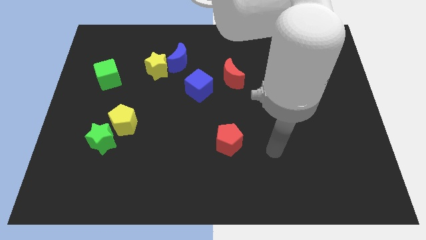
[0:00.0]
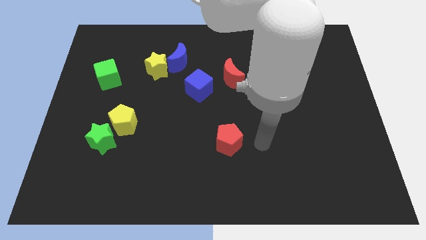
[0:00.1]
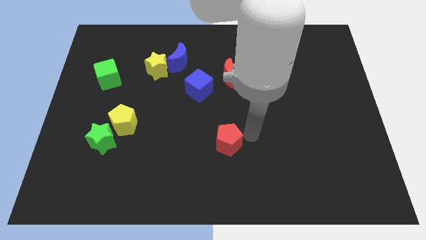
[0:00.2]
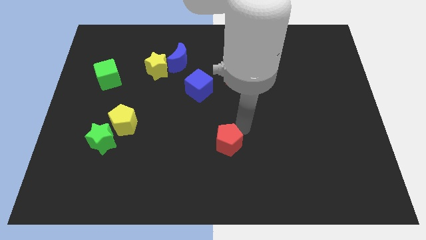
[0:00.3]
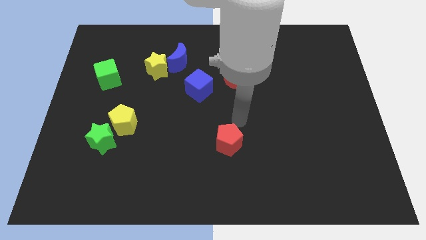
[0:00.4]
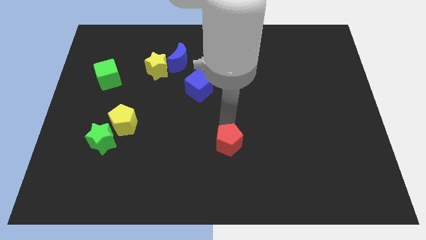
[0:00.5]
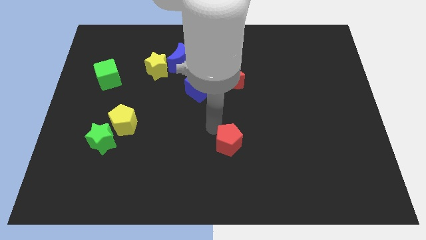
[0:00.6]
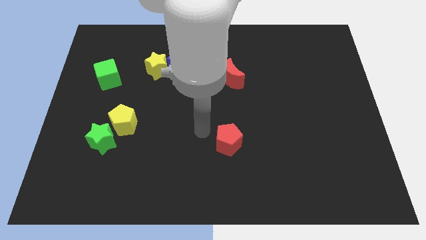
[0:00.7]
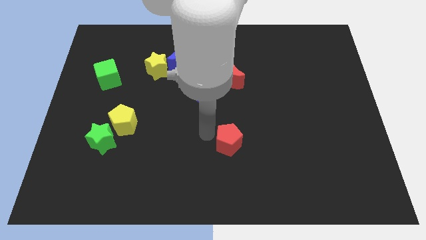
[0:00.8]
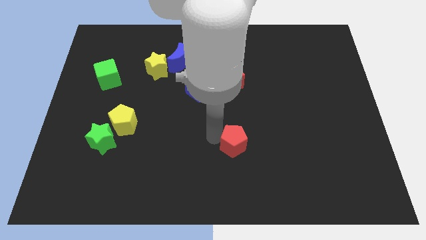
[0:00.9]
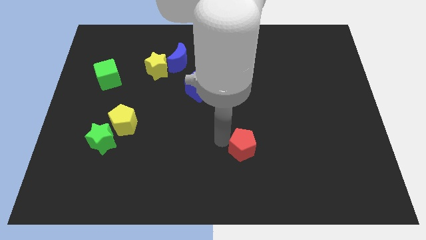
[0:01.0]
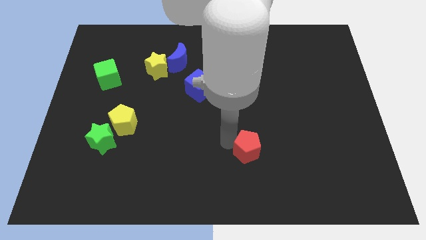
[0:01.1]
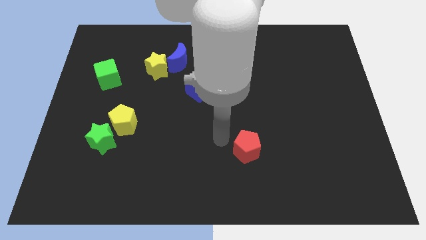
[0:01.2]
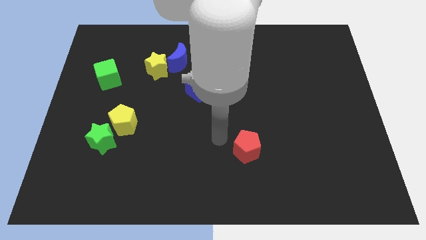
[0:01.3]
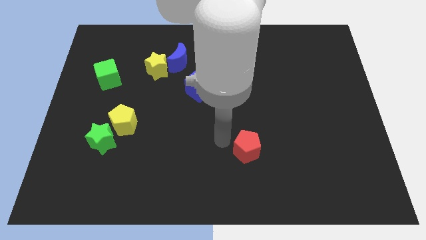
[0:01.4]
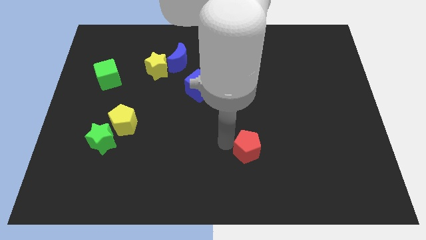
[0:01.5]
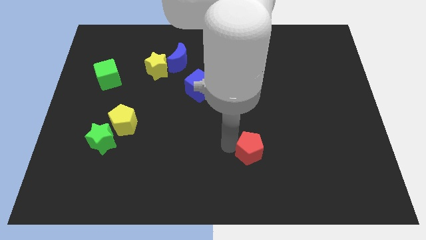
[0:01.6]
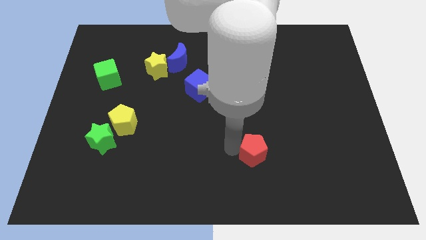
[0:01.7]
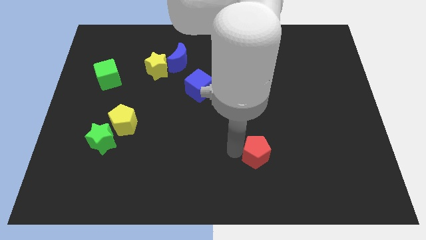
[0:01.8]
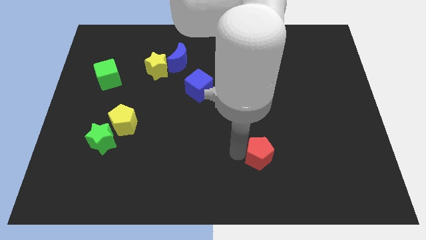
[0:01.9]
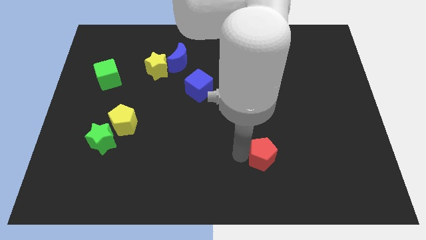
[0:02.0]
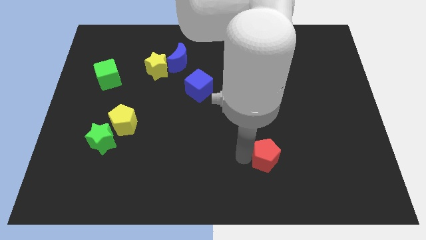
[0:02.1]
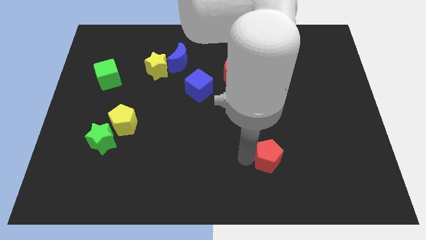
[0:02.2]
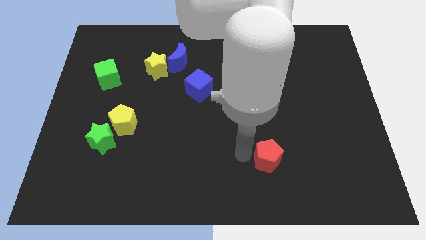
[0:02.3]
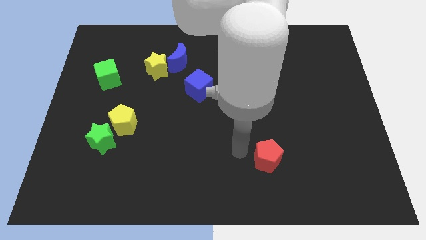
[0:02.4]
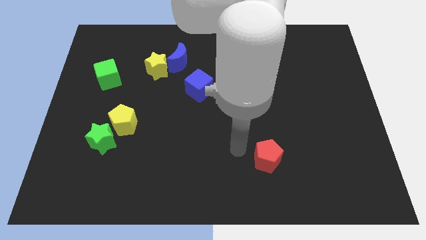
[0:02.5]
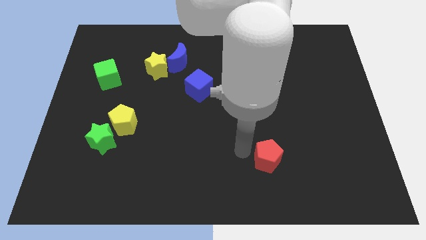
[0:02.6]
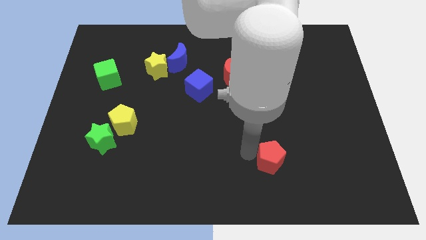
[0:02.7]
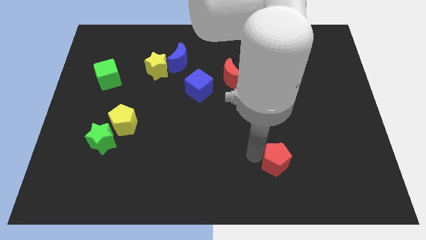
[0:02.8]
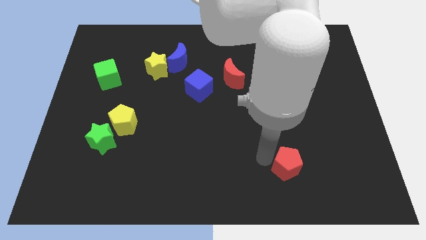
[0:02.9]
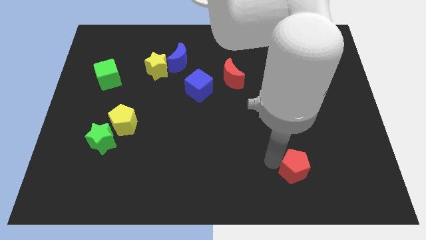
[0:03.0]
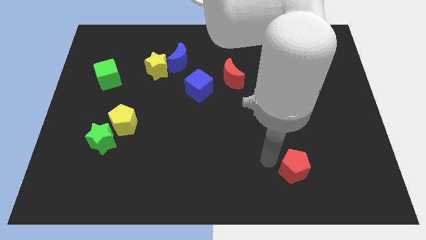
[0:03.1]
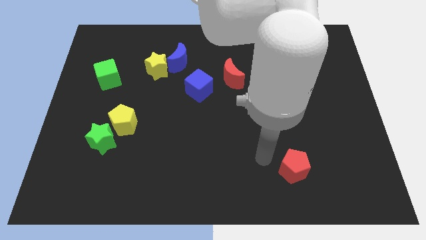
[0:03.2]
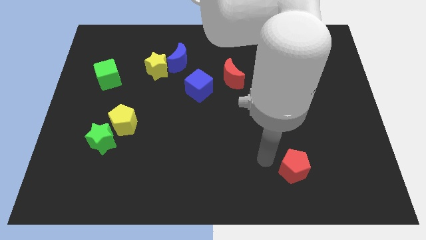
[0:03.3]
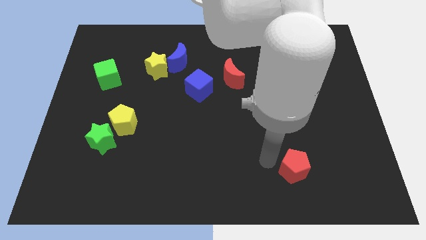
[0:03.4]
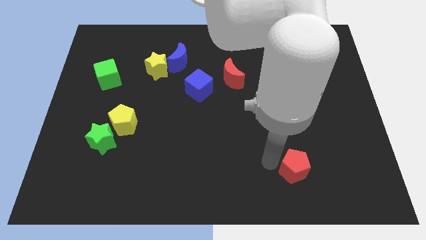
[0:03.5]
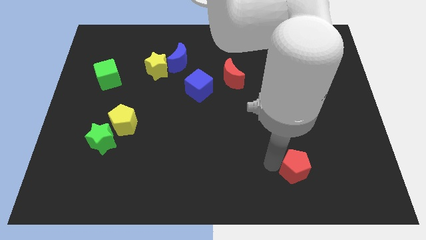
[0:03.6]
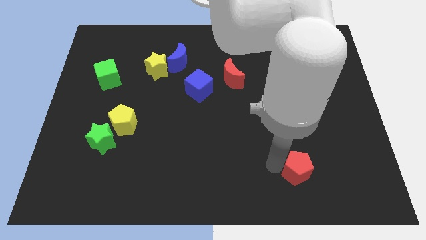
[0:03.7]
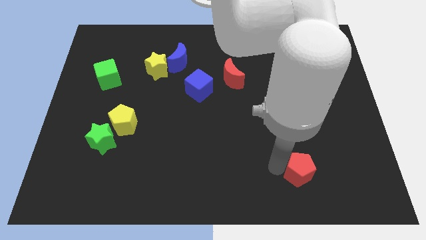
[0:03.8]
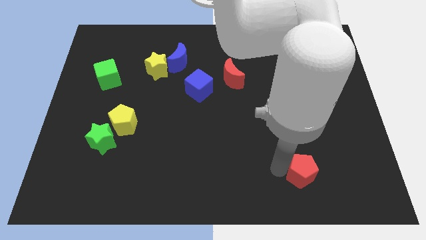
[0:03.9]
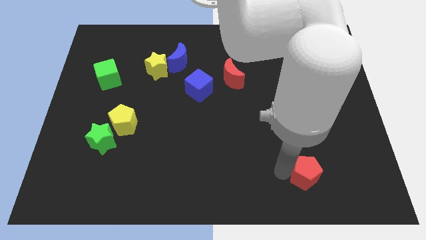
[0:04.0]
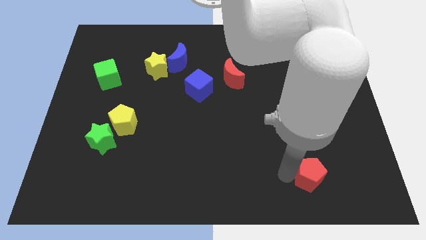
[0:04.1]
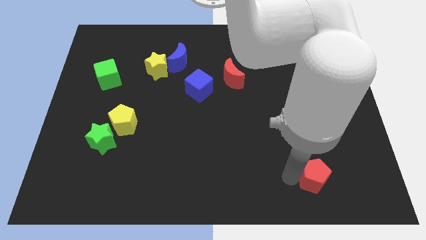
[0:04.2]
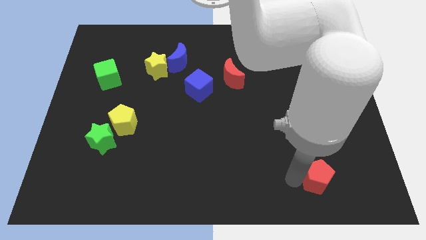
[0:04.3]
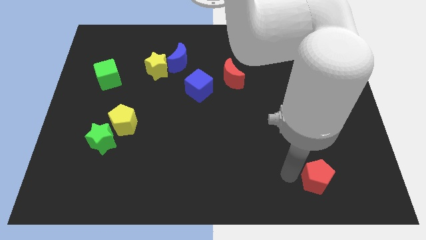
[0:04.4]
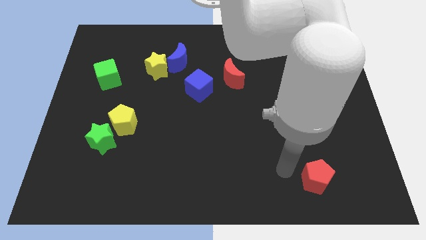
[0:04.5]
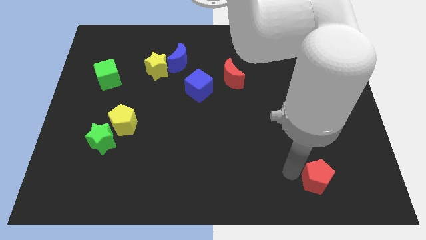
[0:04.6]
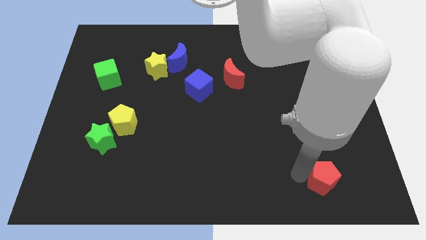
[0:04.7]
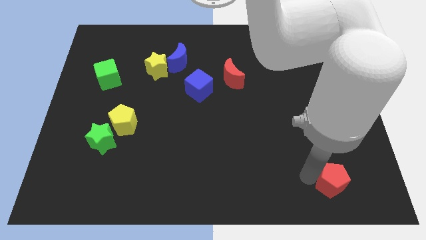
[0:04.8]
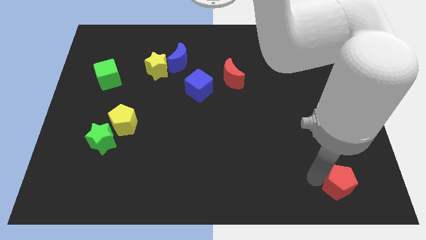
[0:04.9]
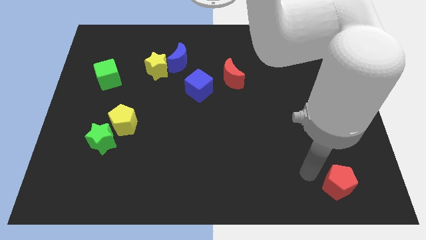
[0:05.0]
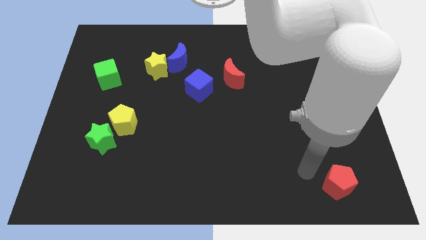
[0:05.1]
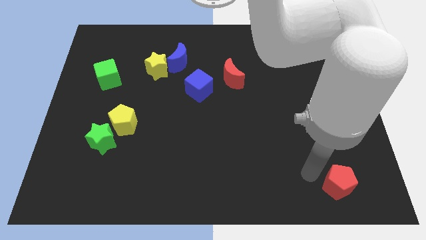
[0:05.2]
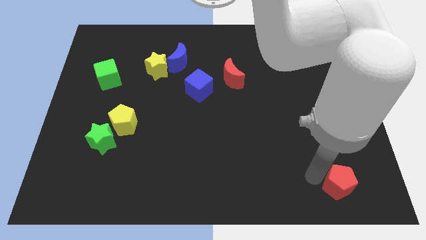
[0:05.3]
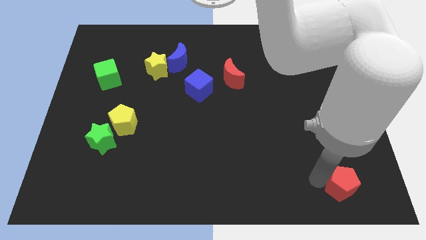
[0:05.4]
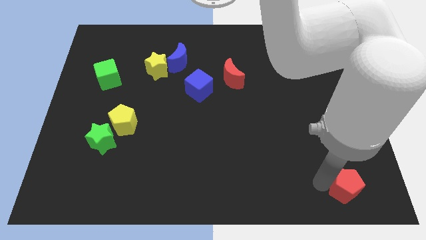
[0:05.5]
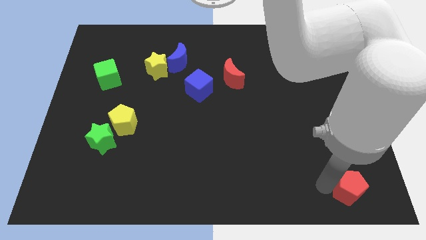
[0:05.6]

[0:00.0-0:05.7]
slide the red pentagon to the bottom right of the board

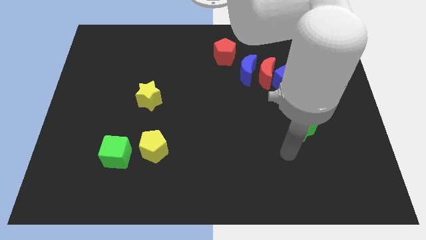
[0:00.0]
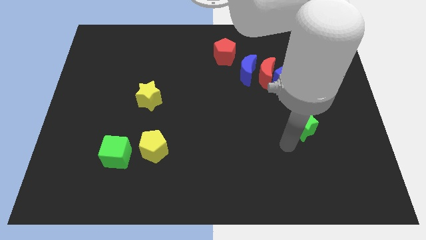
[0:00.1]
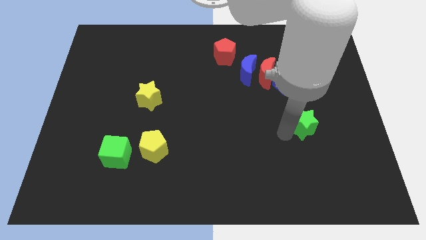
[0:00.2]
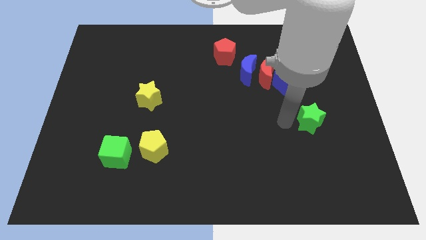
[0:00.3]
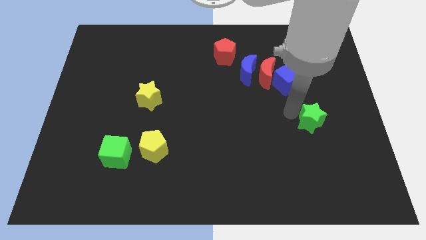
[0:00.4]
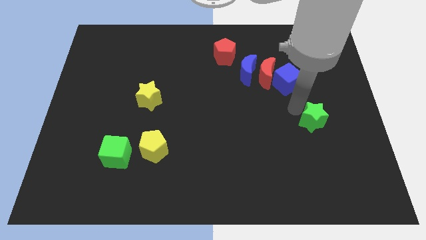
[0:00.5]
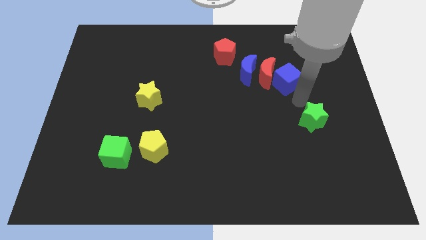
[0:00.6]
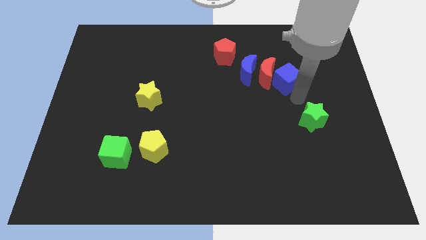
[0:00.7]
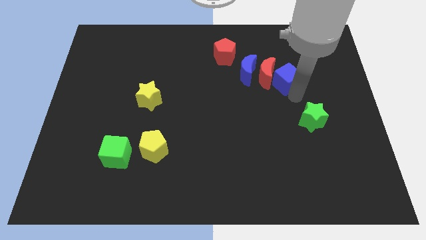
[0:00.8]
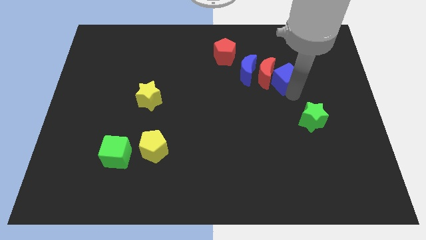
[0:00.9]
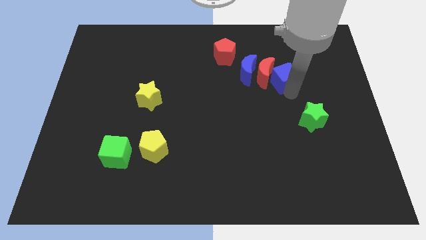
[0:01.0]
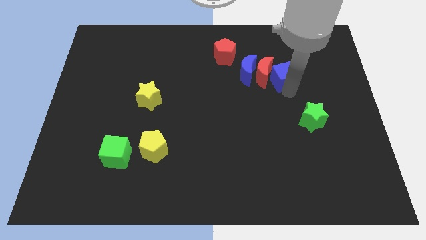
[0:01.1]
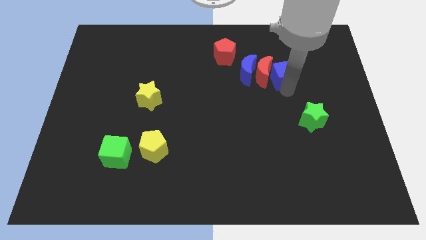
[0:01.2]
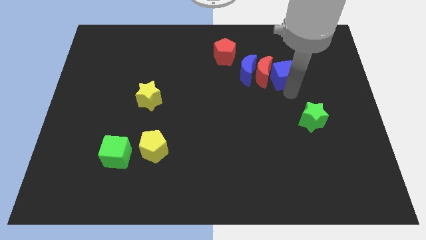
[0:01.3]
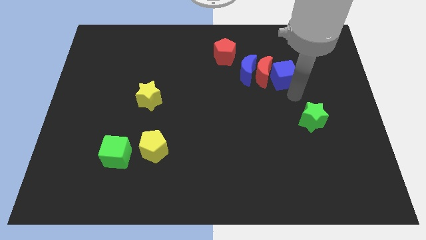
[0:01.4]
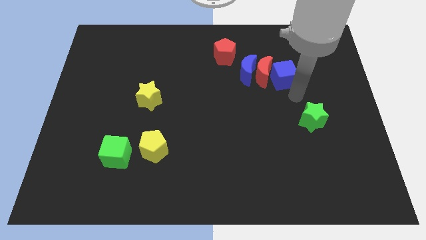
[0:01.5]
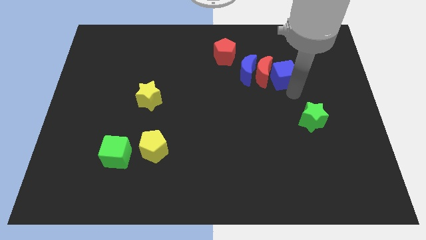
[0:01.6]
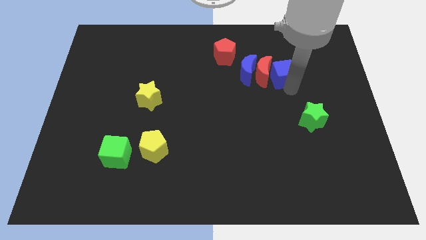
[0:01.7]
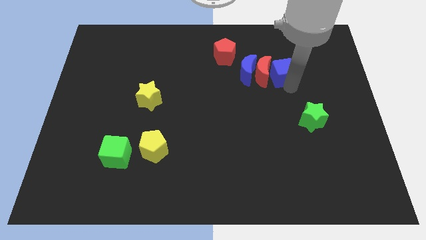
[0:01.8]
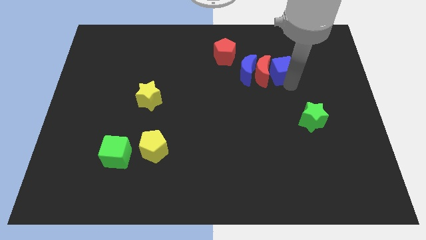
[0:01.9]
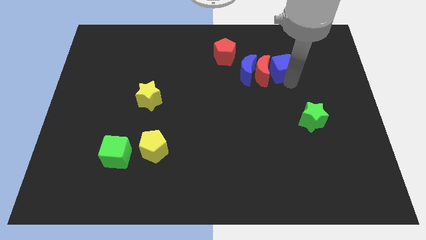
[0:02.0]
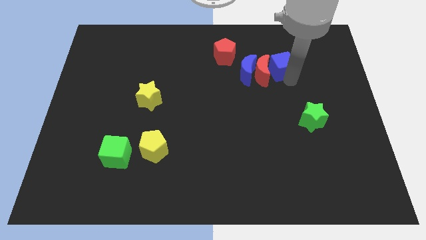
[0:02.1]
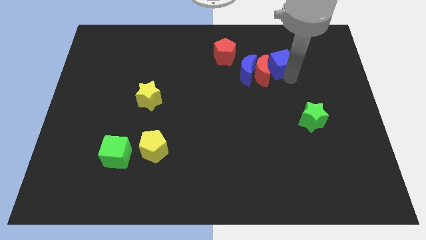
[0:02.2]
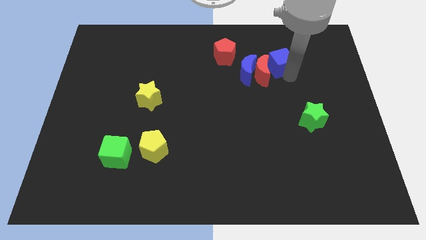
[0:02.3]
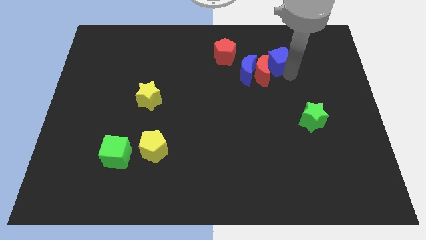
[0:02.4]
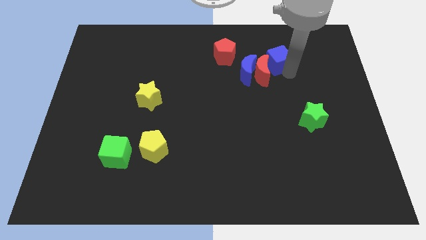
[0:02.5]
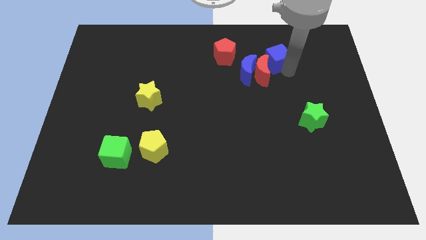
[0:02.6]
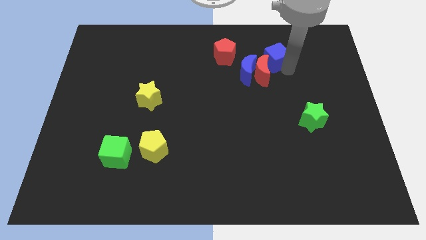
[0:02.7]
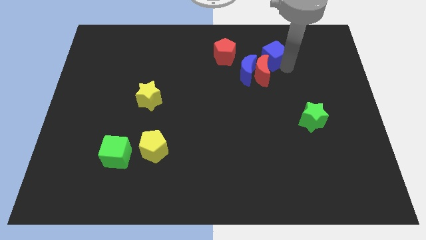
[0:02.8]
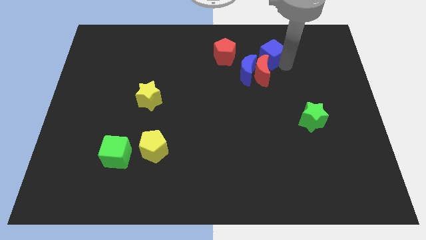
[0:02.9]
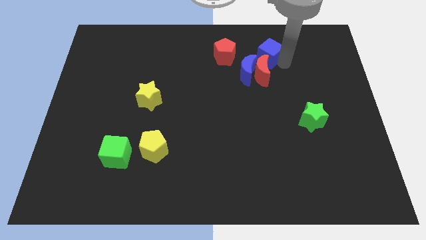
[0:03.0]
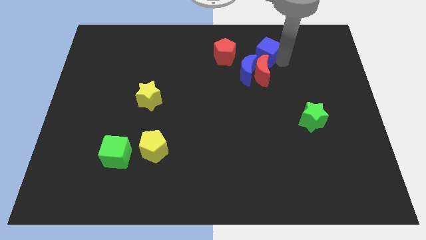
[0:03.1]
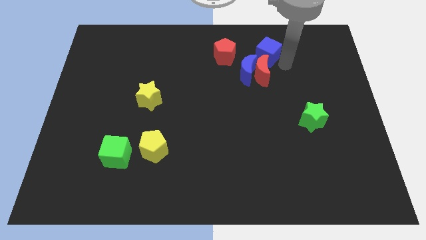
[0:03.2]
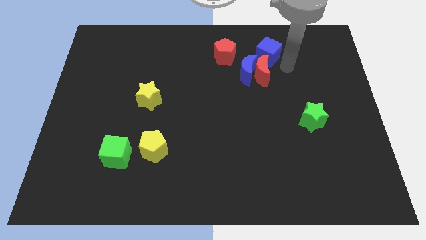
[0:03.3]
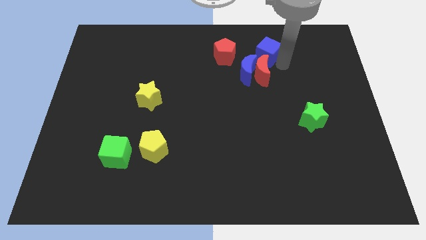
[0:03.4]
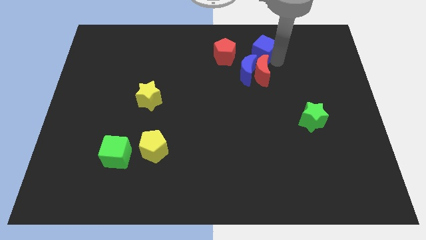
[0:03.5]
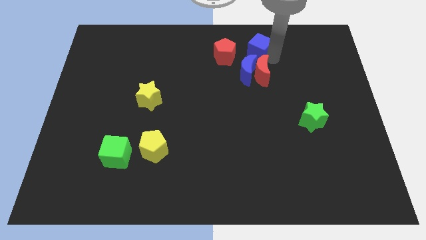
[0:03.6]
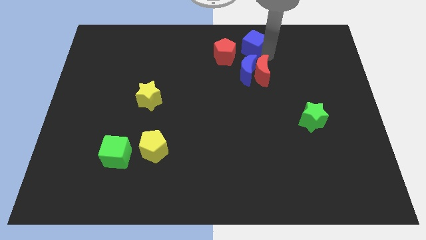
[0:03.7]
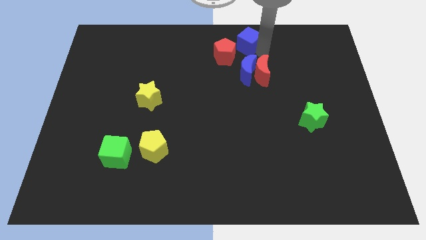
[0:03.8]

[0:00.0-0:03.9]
put the blue cube to the top
